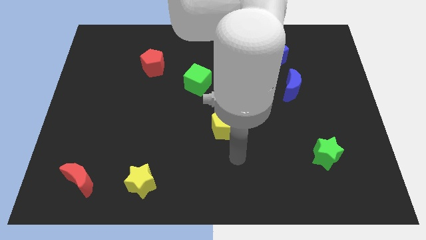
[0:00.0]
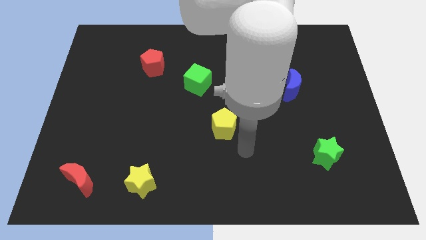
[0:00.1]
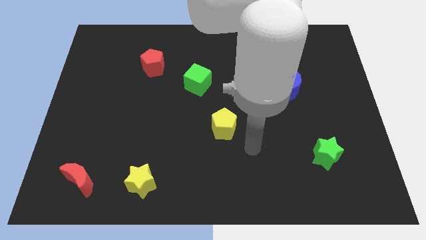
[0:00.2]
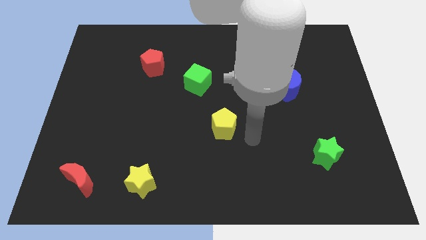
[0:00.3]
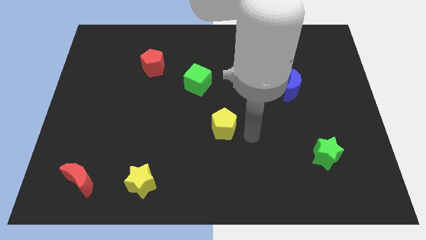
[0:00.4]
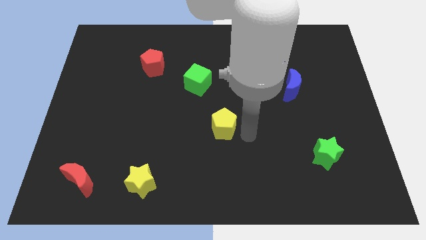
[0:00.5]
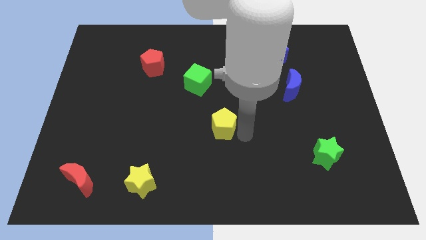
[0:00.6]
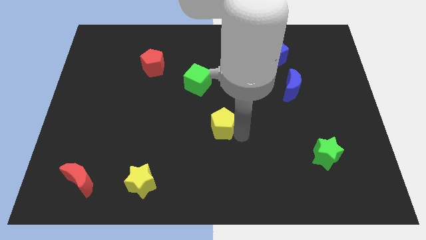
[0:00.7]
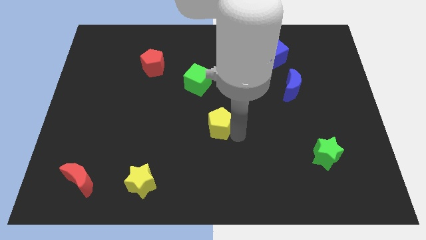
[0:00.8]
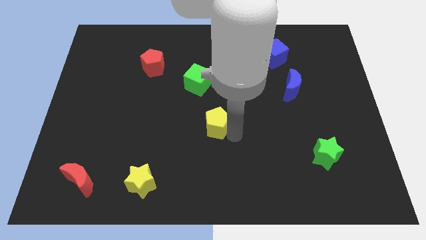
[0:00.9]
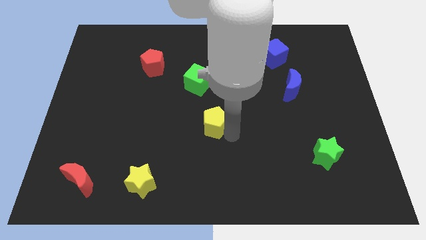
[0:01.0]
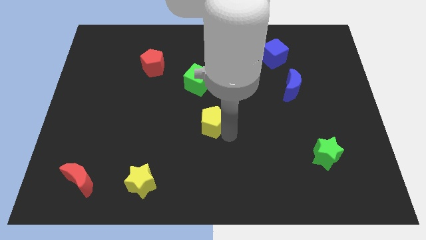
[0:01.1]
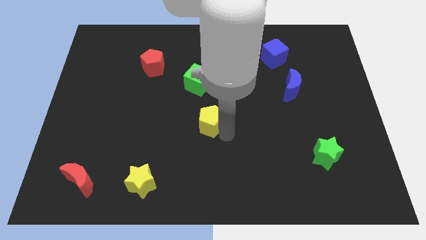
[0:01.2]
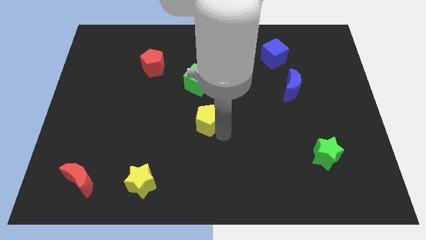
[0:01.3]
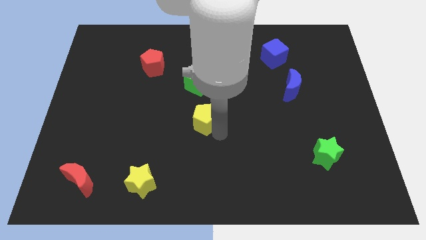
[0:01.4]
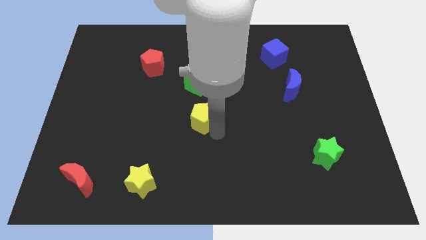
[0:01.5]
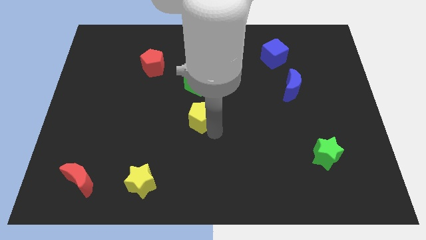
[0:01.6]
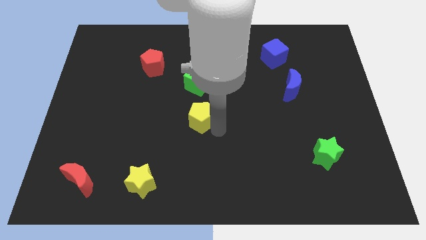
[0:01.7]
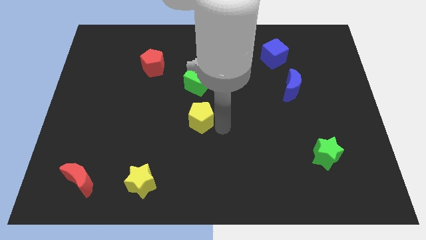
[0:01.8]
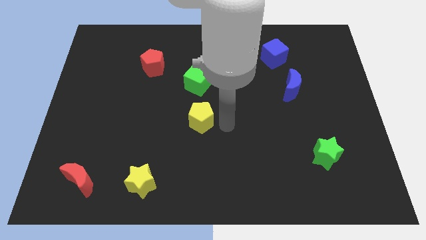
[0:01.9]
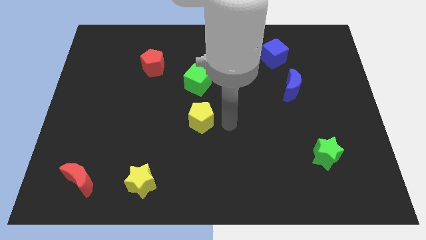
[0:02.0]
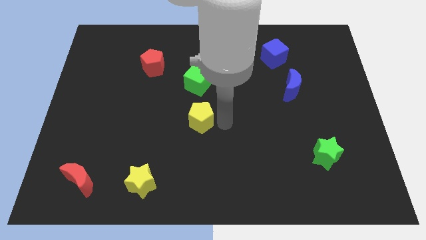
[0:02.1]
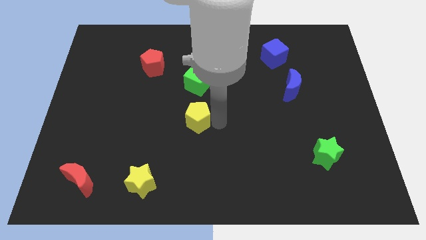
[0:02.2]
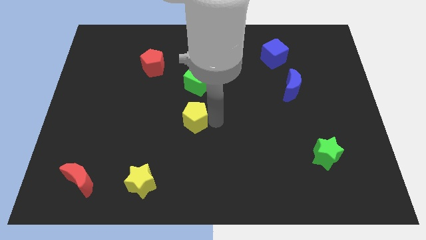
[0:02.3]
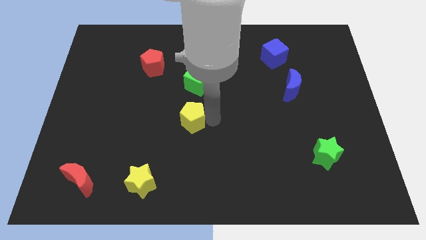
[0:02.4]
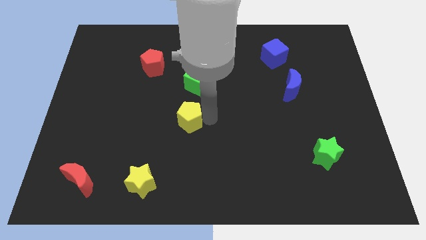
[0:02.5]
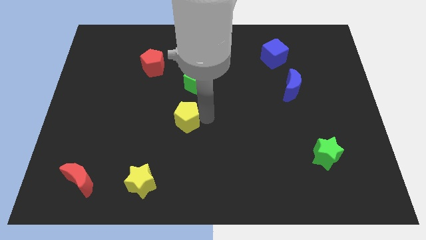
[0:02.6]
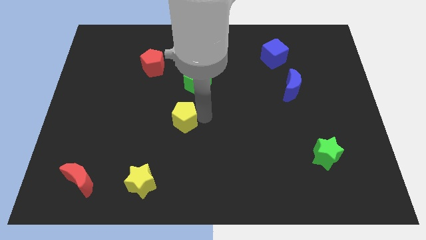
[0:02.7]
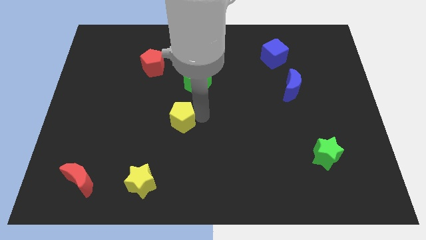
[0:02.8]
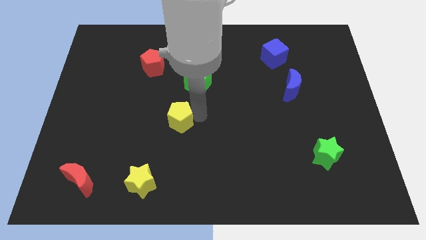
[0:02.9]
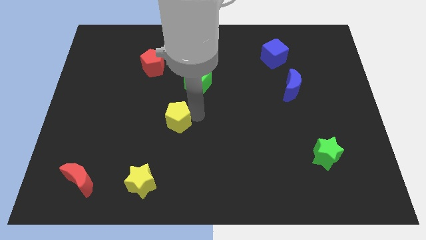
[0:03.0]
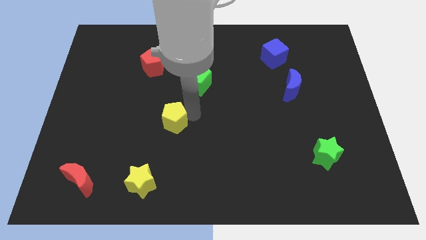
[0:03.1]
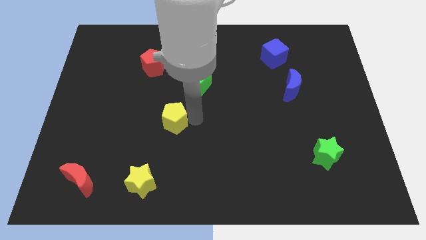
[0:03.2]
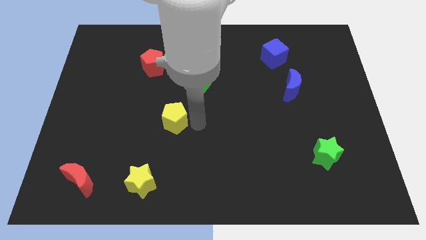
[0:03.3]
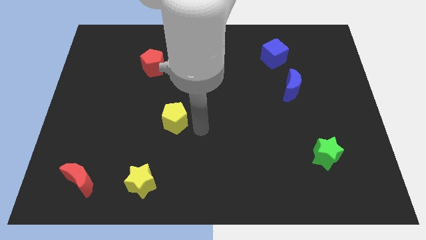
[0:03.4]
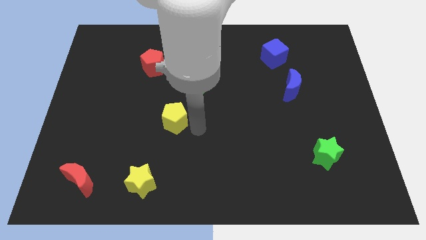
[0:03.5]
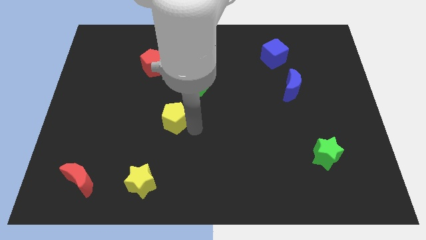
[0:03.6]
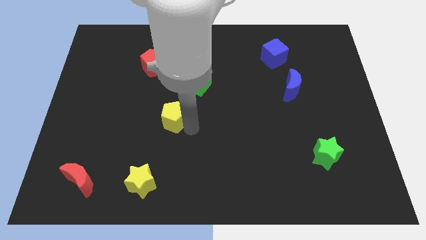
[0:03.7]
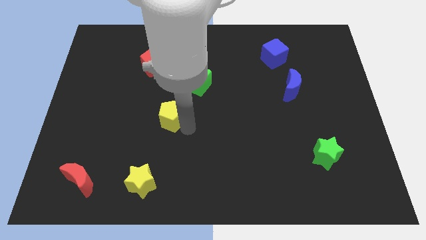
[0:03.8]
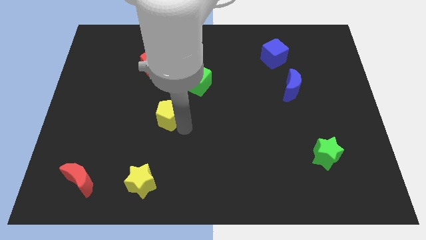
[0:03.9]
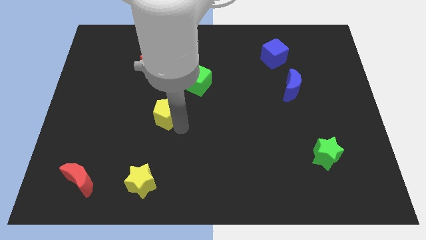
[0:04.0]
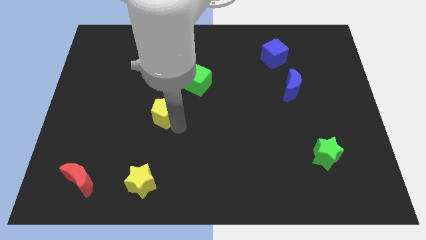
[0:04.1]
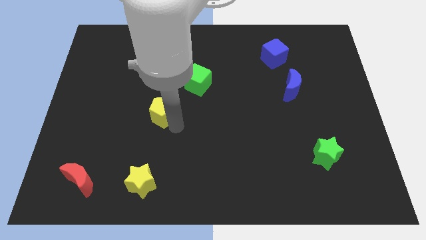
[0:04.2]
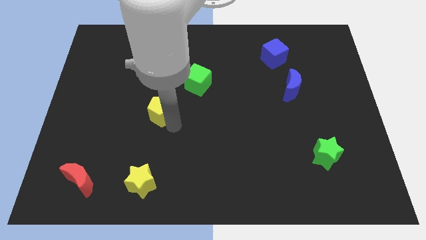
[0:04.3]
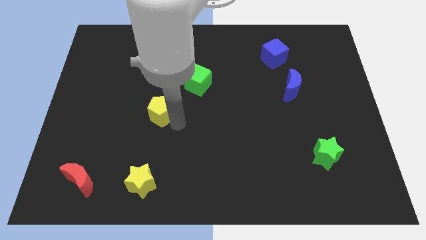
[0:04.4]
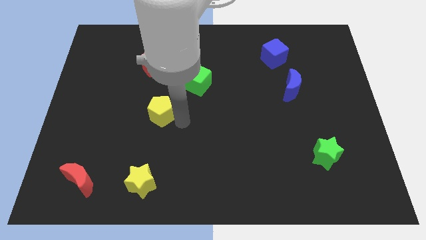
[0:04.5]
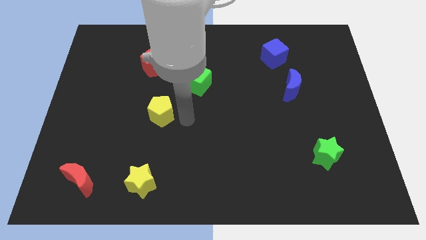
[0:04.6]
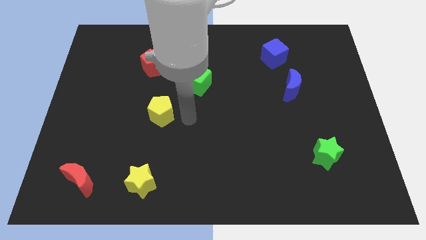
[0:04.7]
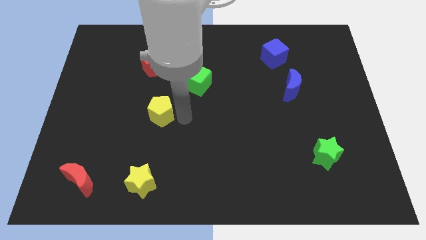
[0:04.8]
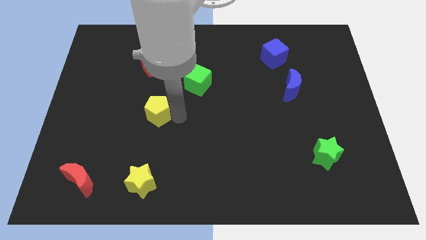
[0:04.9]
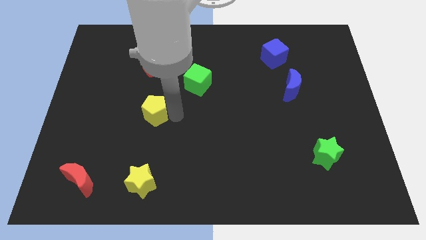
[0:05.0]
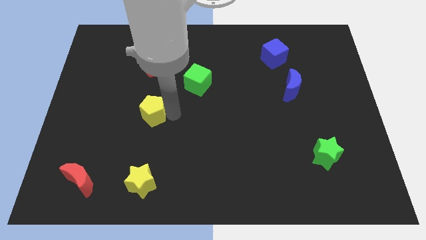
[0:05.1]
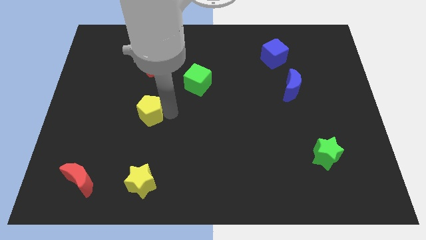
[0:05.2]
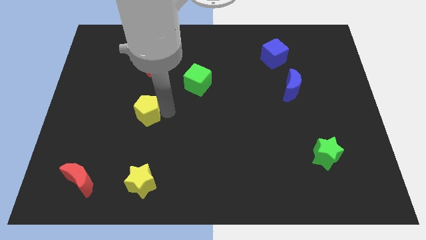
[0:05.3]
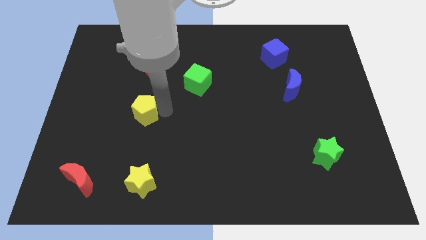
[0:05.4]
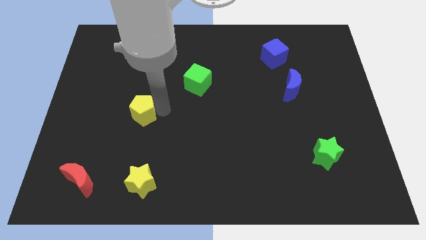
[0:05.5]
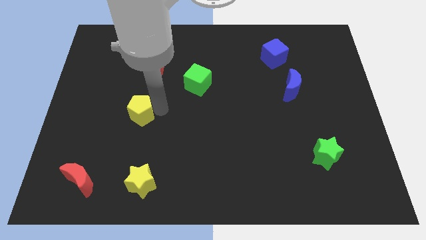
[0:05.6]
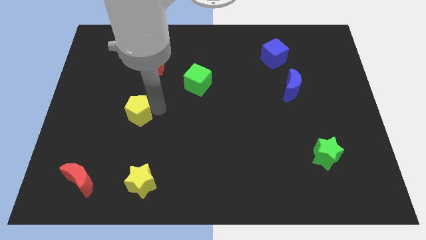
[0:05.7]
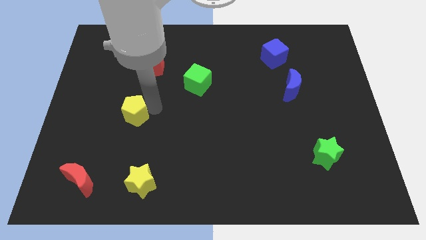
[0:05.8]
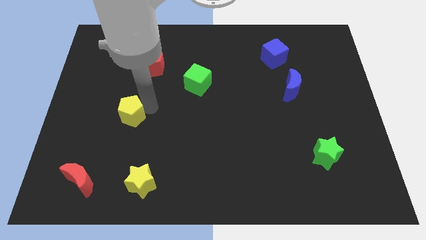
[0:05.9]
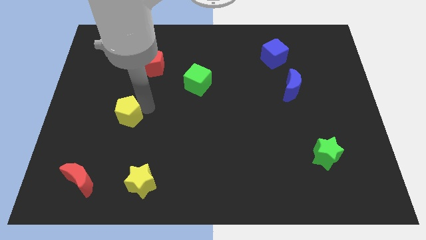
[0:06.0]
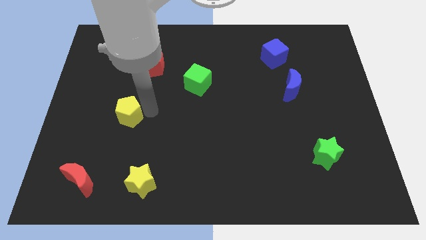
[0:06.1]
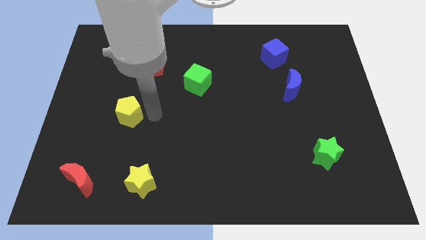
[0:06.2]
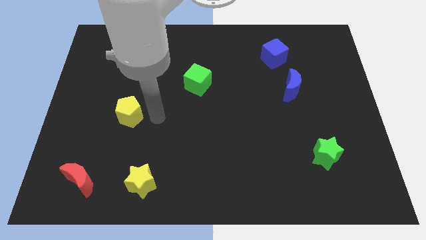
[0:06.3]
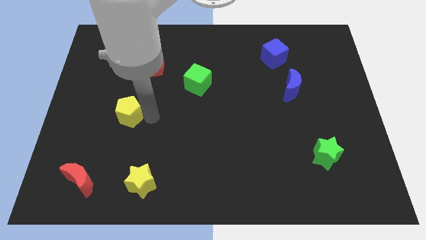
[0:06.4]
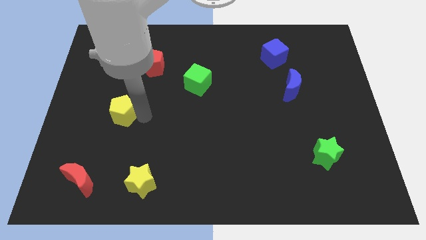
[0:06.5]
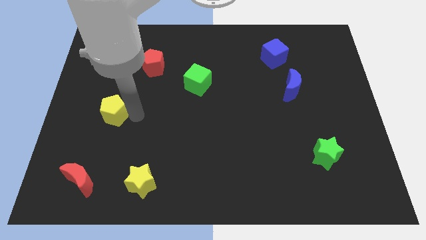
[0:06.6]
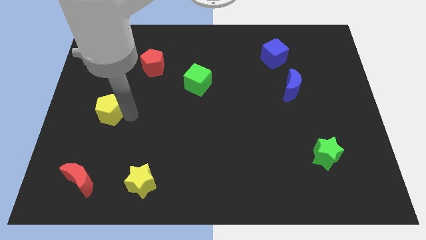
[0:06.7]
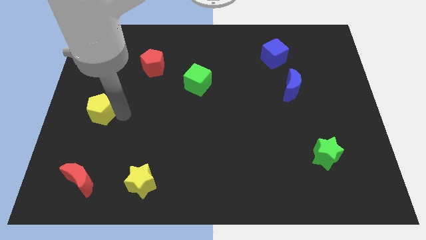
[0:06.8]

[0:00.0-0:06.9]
move the yellow pentagon to the left side

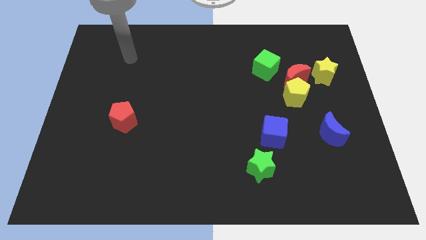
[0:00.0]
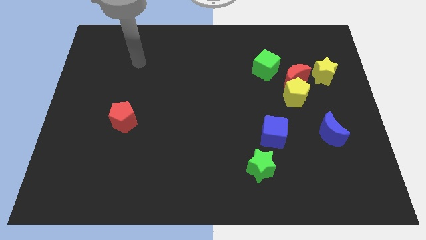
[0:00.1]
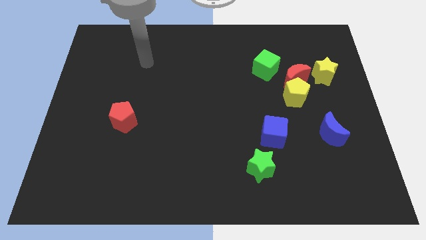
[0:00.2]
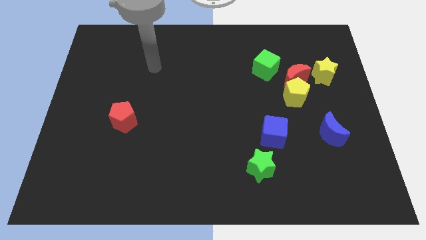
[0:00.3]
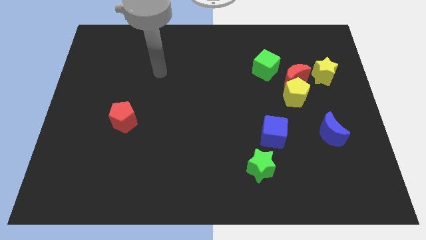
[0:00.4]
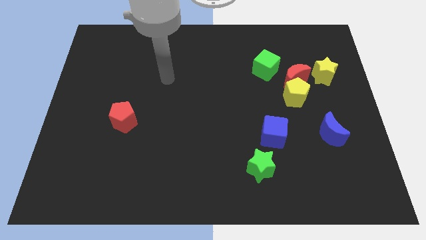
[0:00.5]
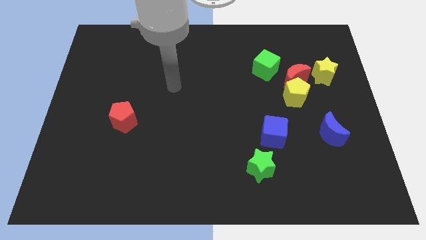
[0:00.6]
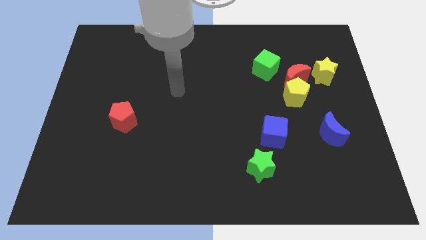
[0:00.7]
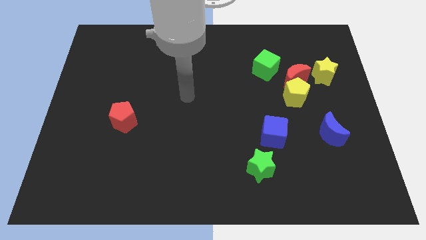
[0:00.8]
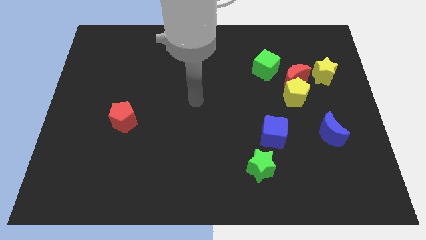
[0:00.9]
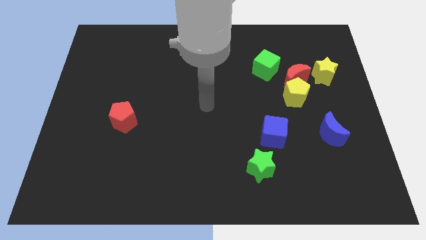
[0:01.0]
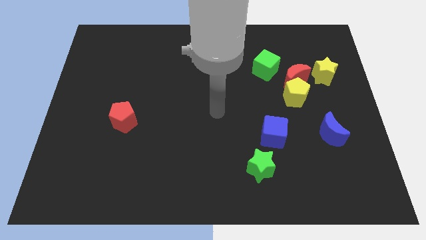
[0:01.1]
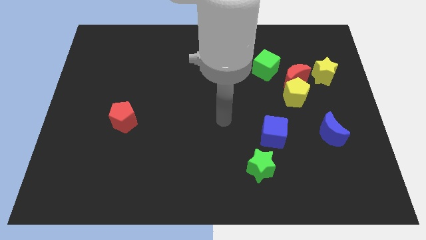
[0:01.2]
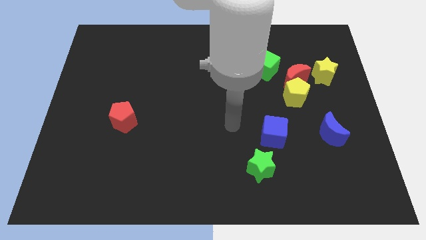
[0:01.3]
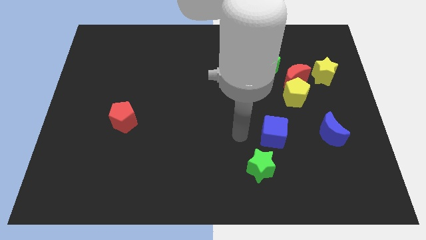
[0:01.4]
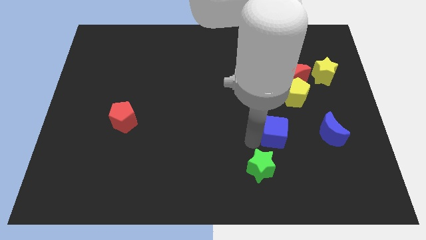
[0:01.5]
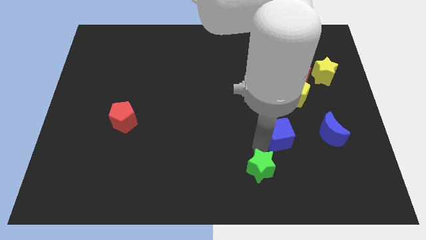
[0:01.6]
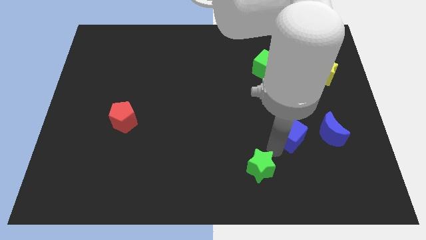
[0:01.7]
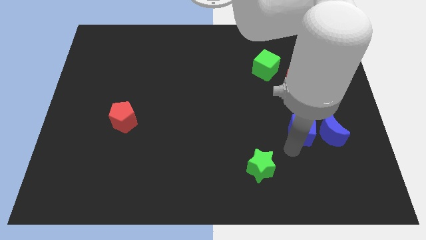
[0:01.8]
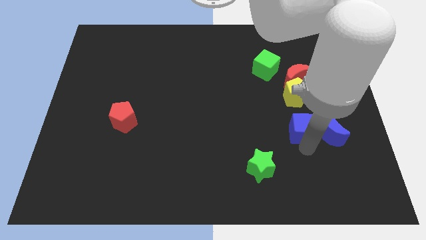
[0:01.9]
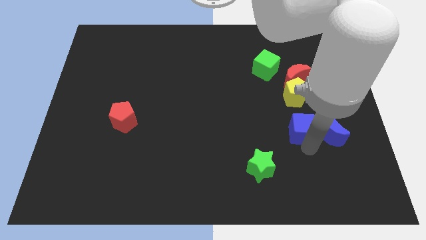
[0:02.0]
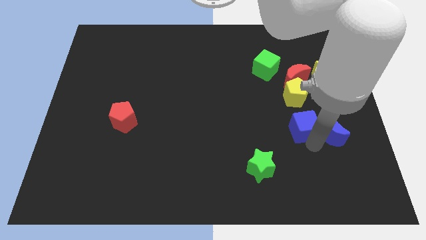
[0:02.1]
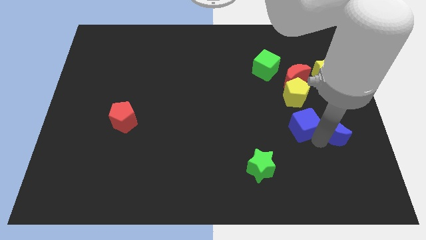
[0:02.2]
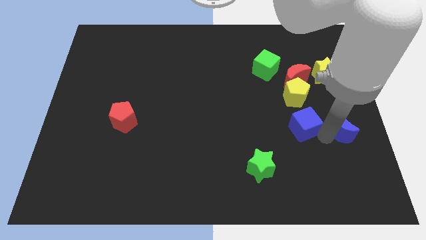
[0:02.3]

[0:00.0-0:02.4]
put the blue moon to the center right
